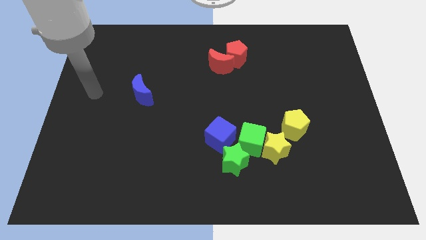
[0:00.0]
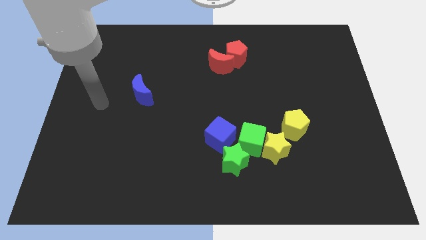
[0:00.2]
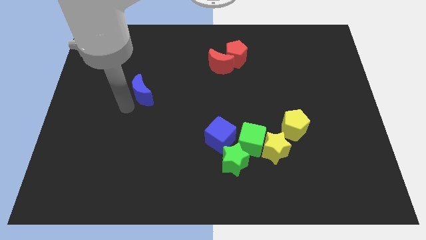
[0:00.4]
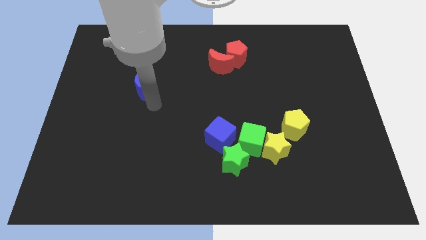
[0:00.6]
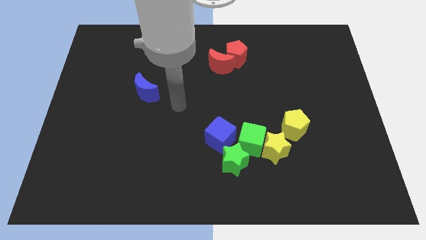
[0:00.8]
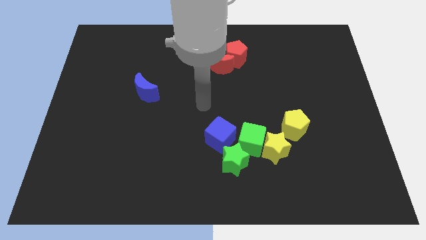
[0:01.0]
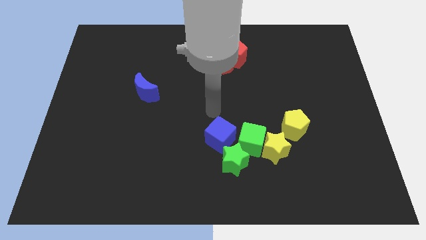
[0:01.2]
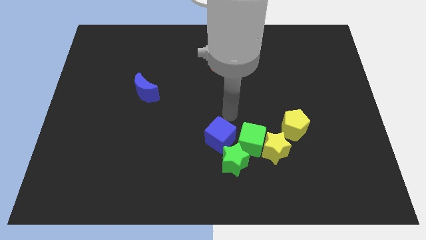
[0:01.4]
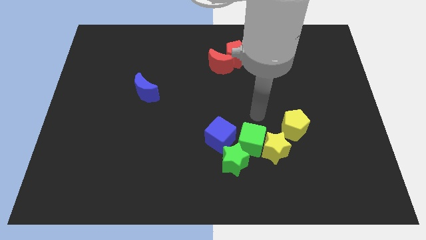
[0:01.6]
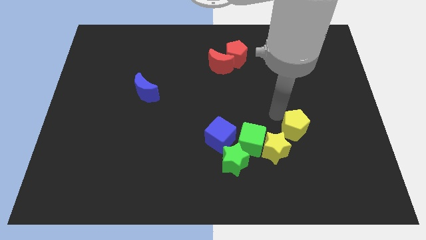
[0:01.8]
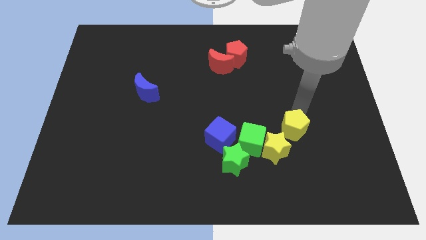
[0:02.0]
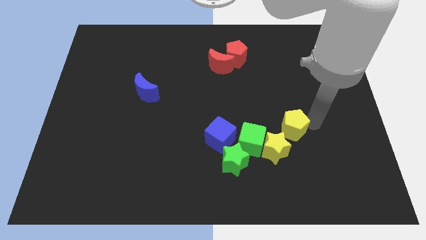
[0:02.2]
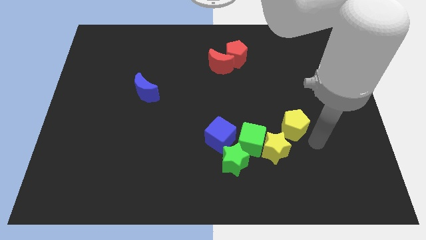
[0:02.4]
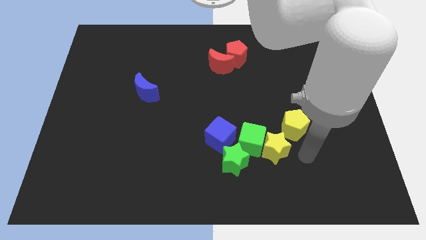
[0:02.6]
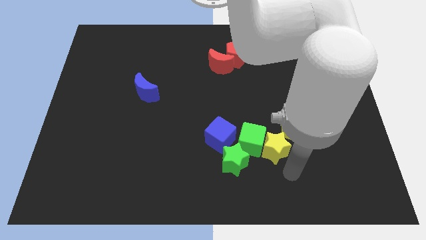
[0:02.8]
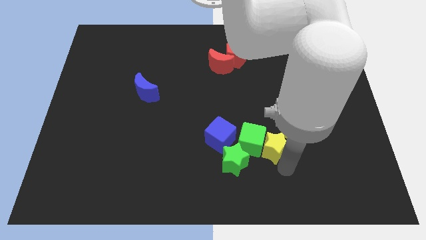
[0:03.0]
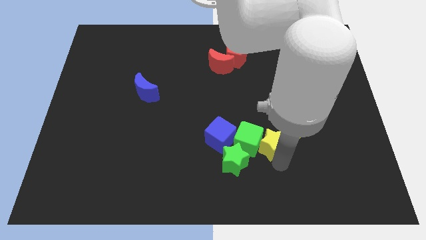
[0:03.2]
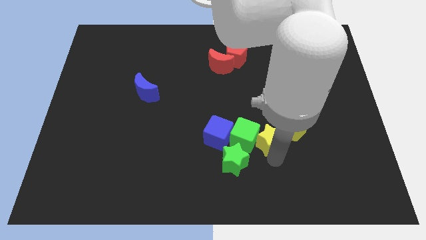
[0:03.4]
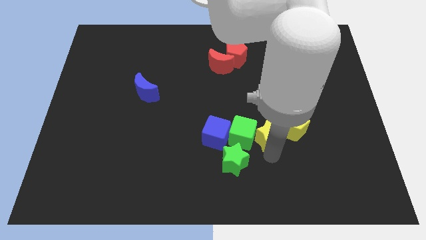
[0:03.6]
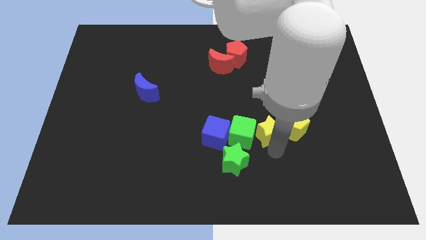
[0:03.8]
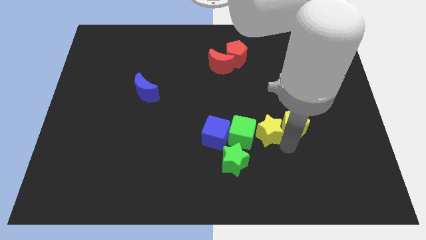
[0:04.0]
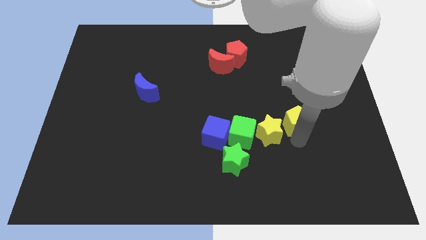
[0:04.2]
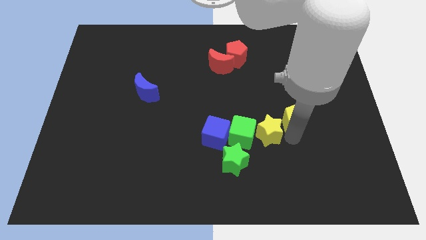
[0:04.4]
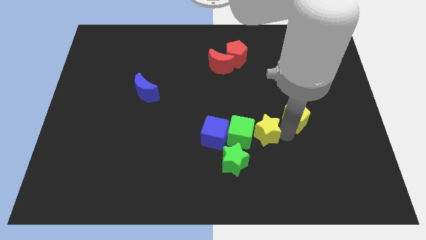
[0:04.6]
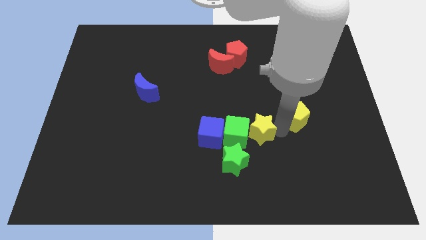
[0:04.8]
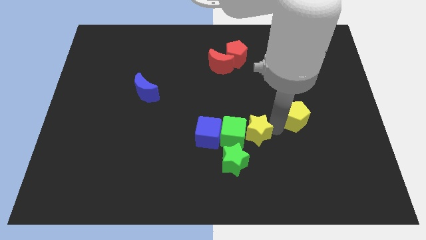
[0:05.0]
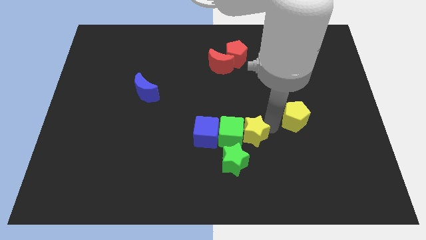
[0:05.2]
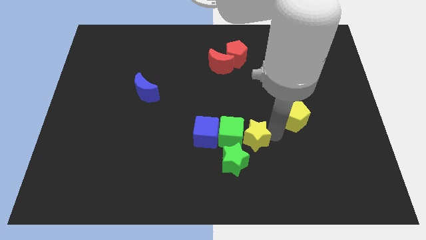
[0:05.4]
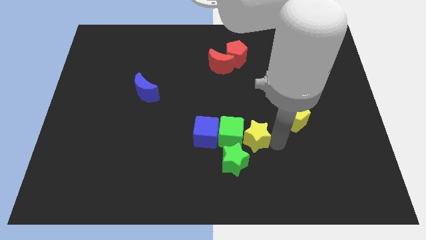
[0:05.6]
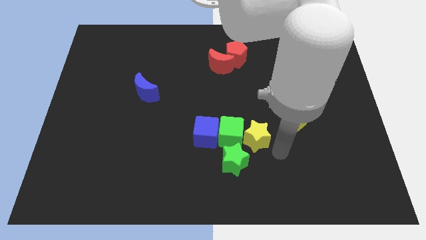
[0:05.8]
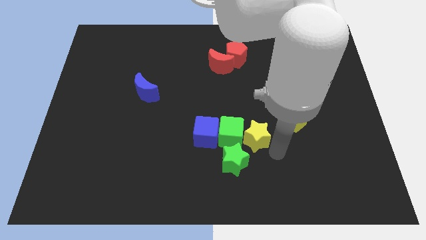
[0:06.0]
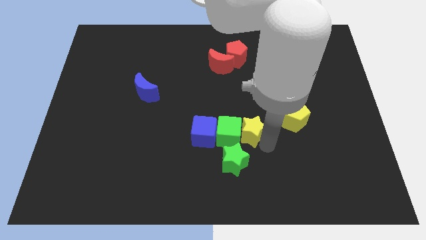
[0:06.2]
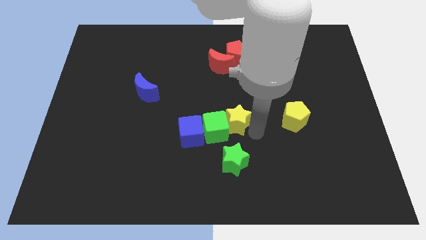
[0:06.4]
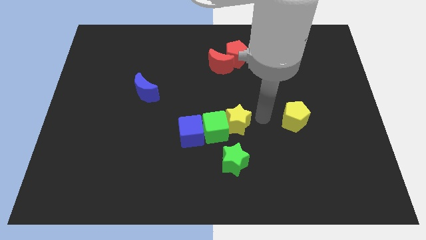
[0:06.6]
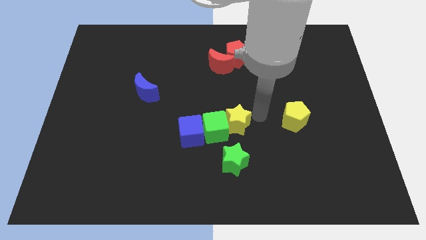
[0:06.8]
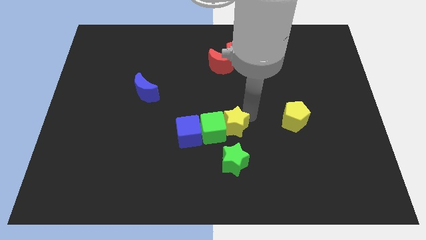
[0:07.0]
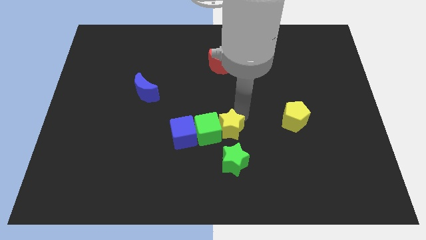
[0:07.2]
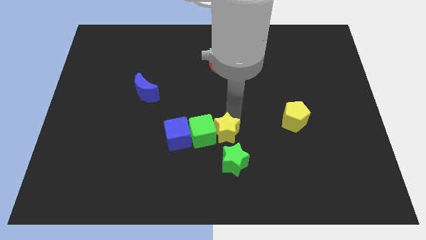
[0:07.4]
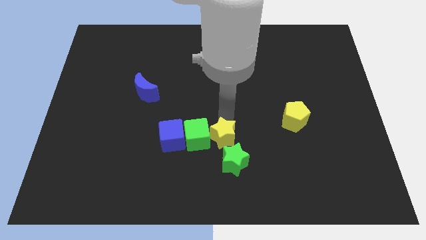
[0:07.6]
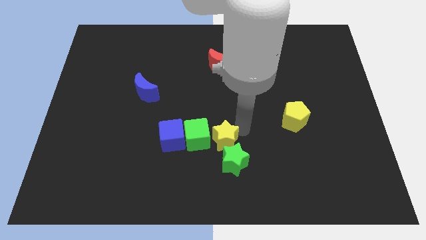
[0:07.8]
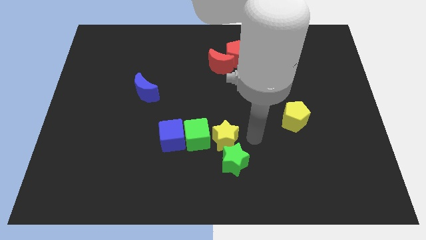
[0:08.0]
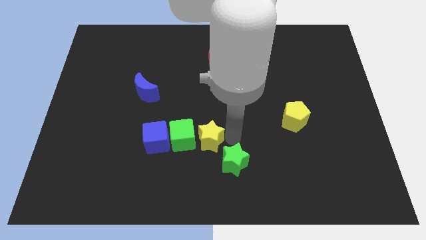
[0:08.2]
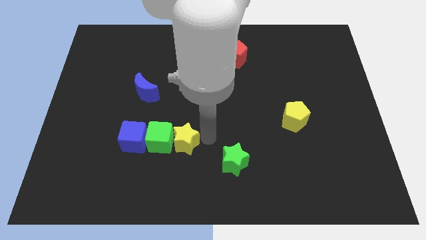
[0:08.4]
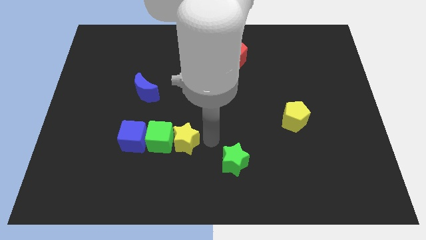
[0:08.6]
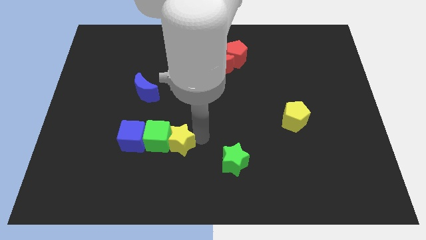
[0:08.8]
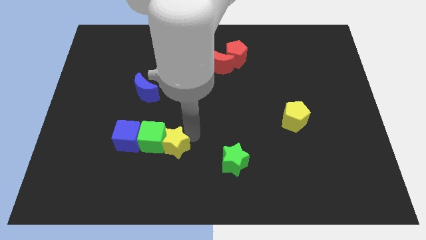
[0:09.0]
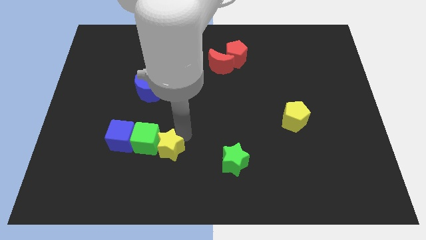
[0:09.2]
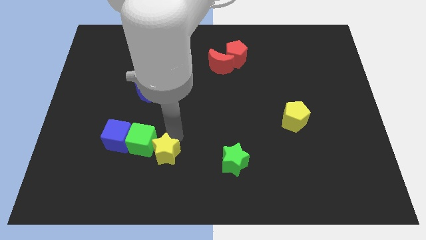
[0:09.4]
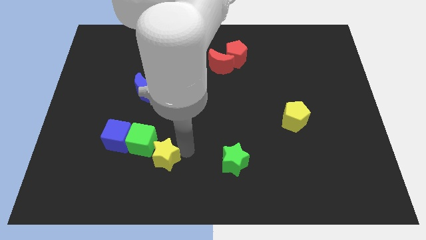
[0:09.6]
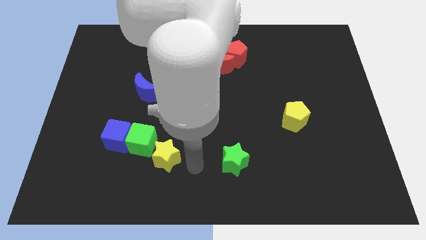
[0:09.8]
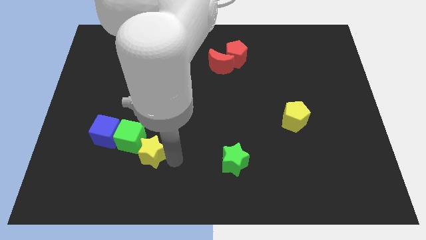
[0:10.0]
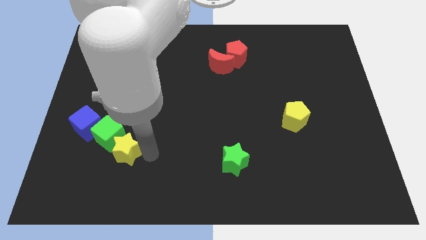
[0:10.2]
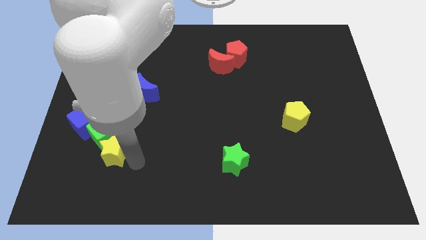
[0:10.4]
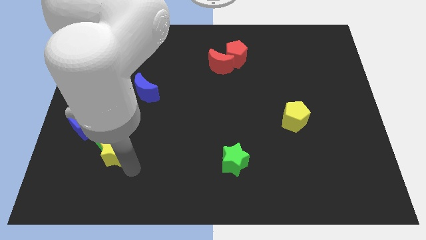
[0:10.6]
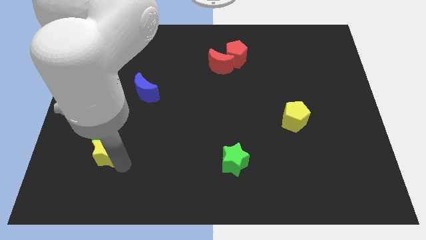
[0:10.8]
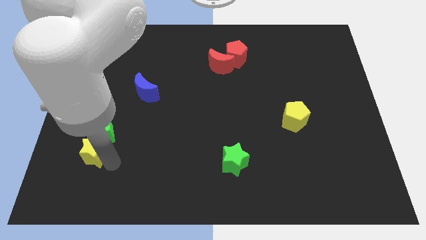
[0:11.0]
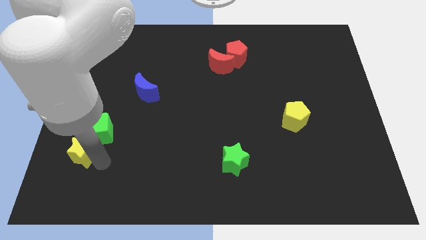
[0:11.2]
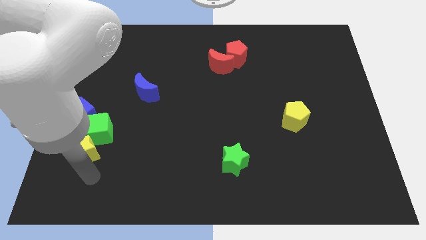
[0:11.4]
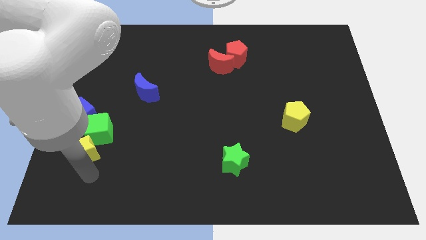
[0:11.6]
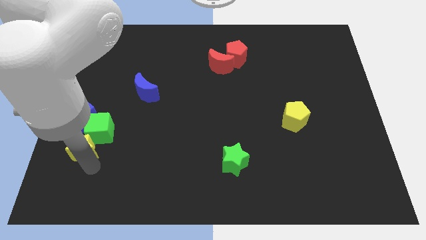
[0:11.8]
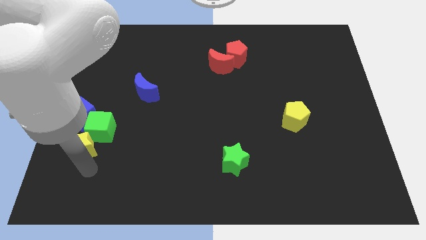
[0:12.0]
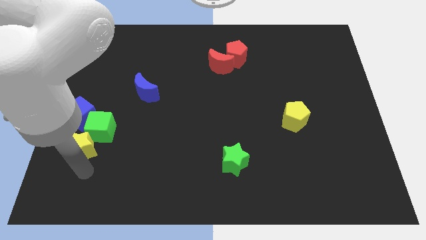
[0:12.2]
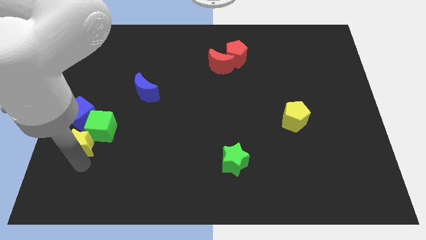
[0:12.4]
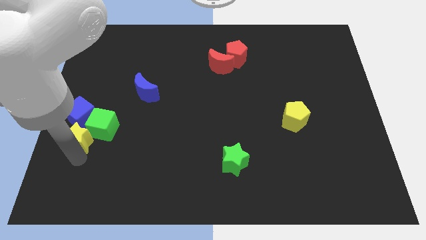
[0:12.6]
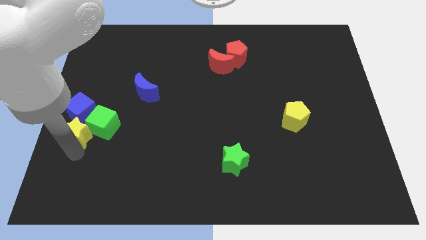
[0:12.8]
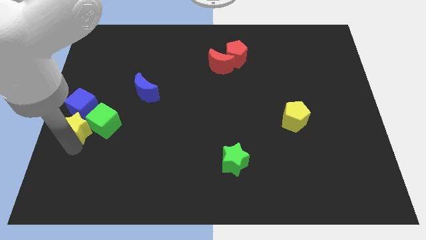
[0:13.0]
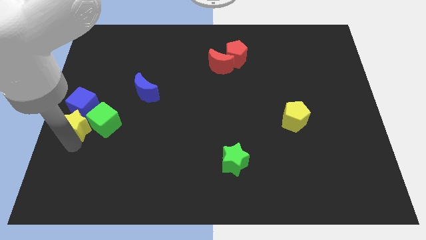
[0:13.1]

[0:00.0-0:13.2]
push the yellow star towards the blue cube

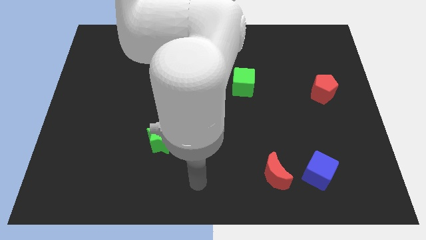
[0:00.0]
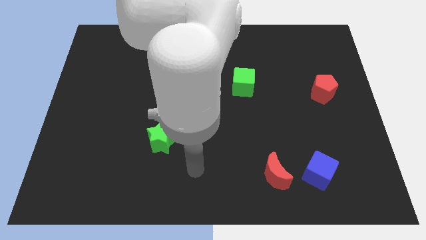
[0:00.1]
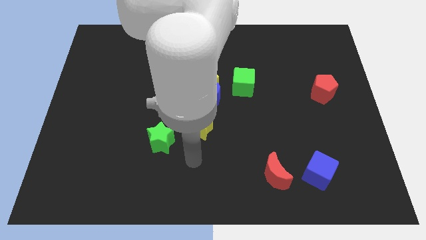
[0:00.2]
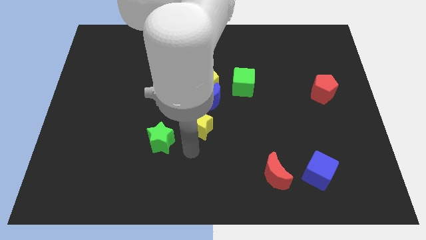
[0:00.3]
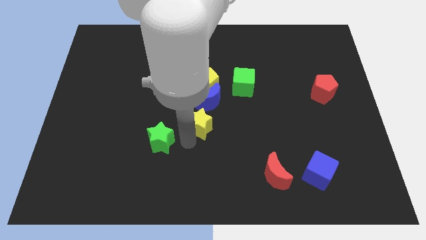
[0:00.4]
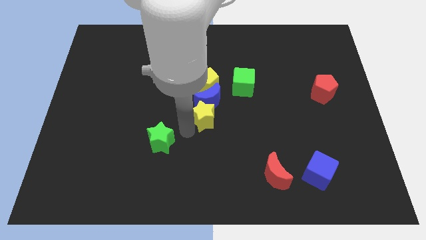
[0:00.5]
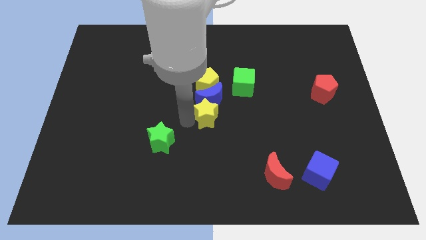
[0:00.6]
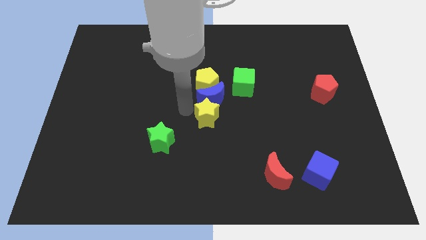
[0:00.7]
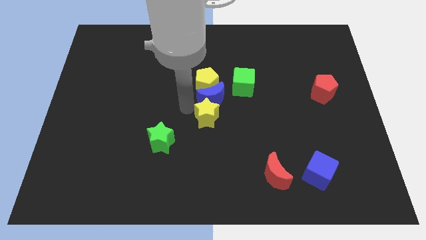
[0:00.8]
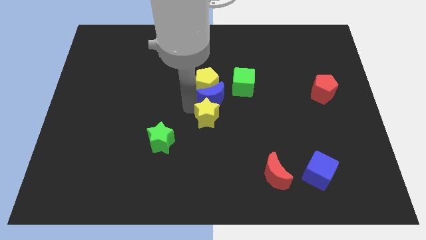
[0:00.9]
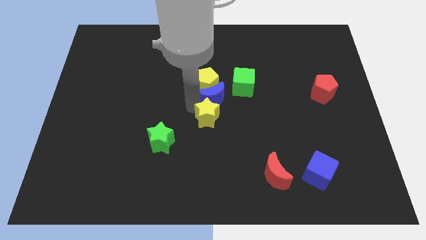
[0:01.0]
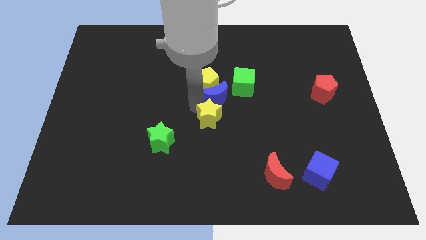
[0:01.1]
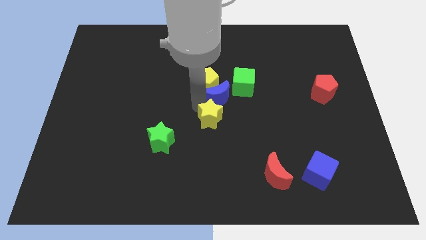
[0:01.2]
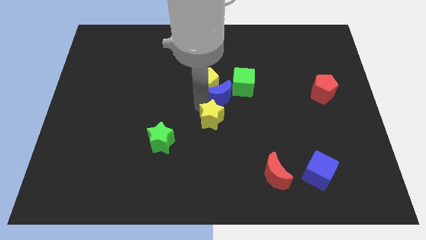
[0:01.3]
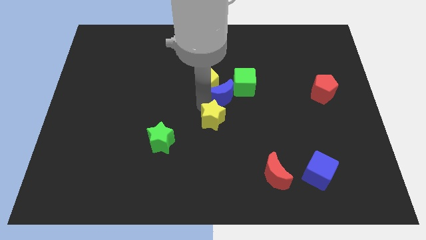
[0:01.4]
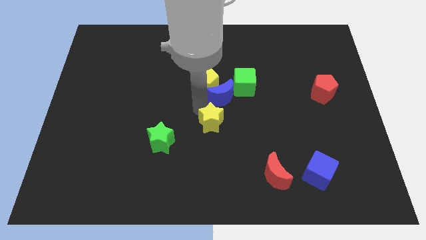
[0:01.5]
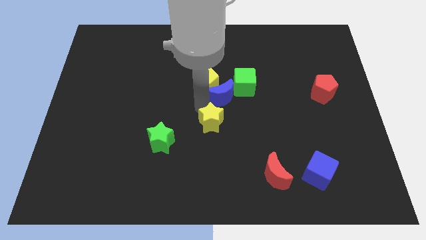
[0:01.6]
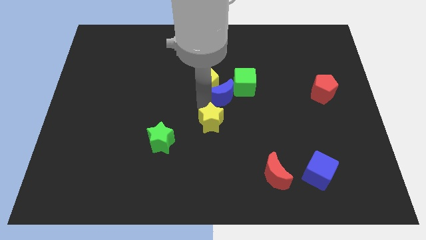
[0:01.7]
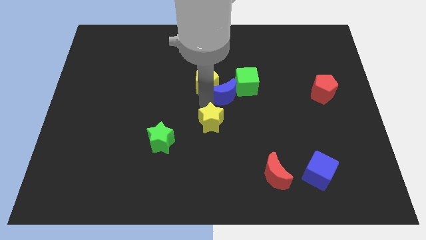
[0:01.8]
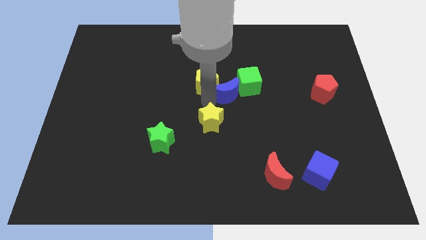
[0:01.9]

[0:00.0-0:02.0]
put the blue moon close to the green cube
